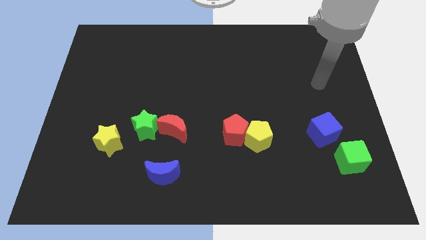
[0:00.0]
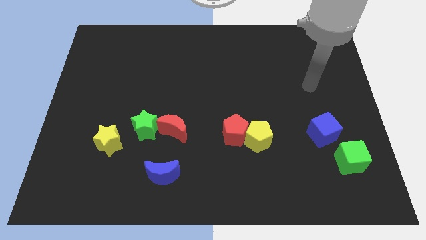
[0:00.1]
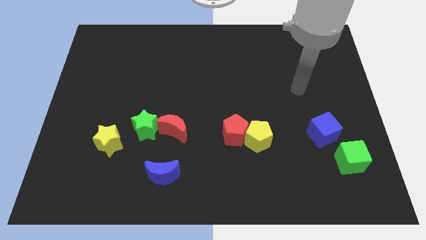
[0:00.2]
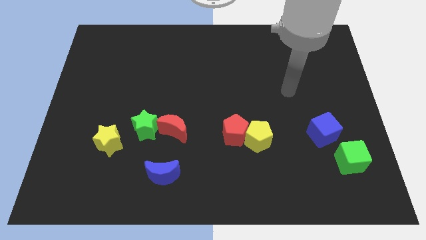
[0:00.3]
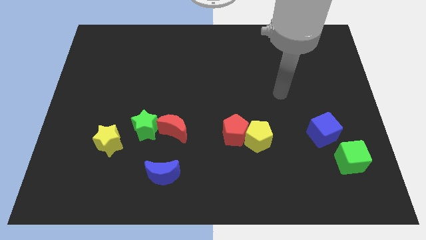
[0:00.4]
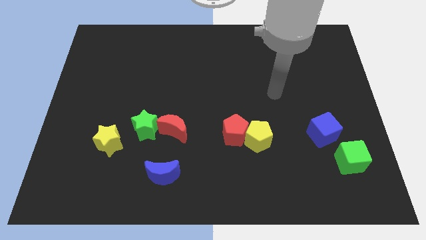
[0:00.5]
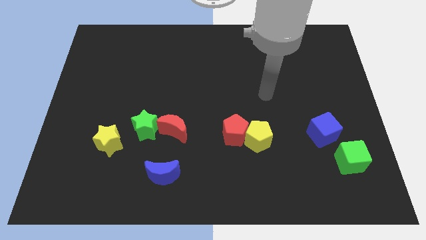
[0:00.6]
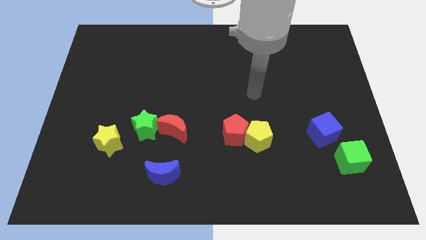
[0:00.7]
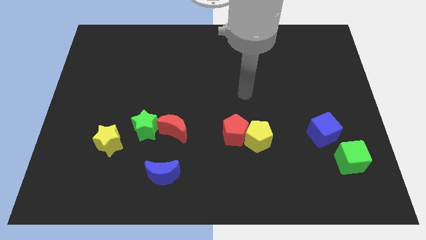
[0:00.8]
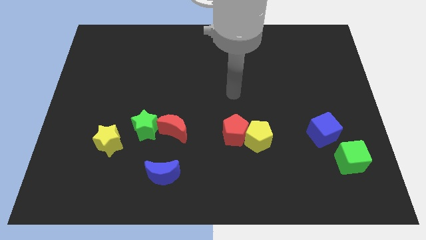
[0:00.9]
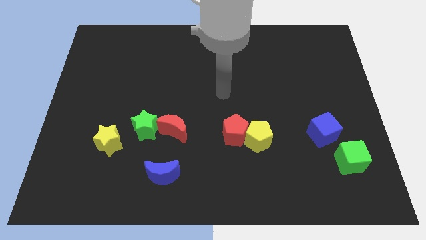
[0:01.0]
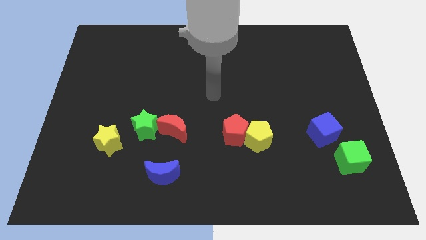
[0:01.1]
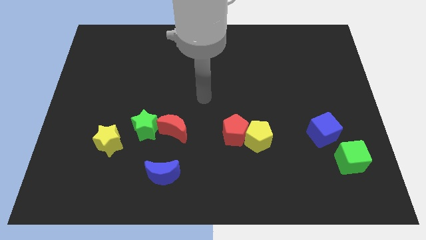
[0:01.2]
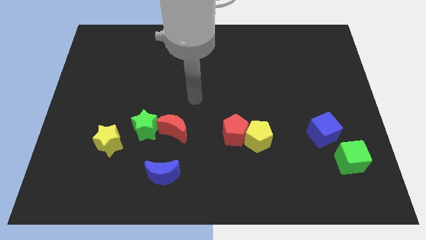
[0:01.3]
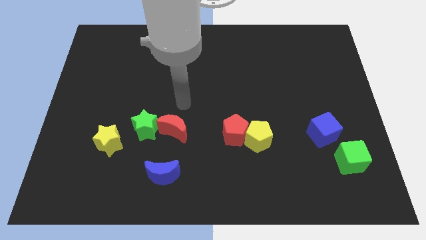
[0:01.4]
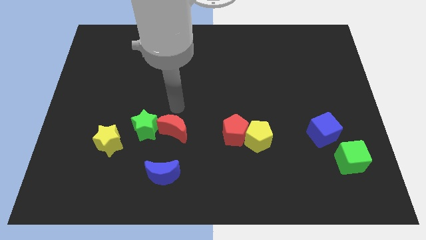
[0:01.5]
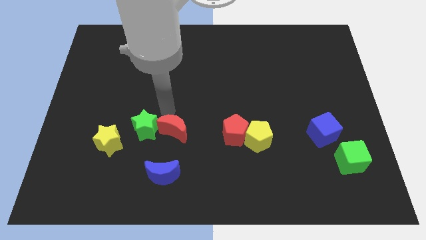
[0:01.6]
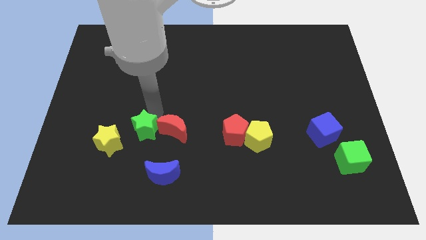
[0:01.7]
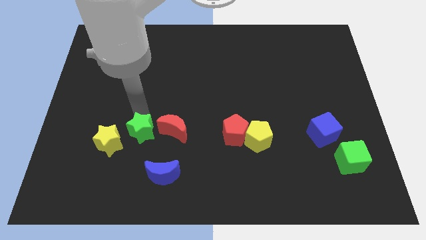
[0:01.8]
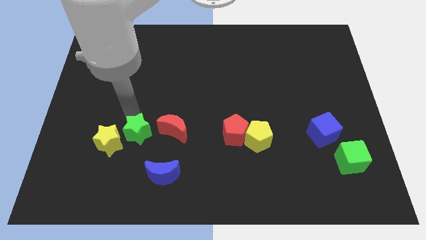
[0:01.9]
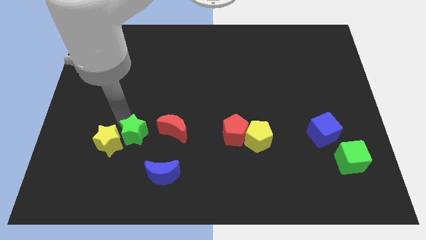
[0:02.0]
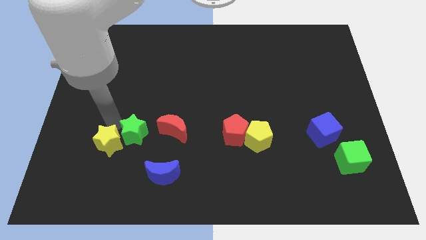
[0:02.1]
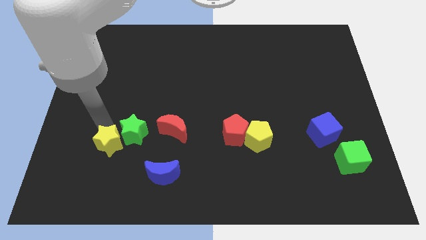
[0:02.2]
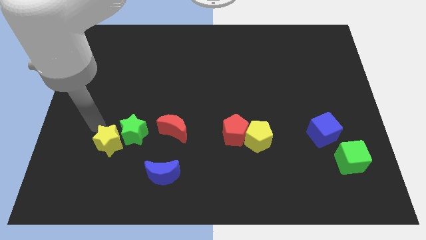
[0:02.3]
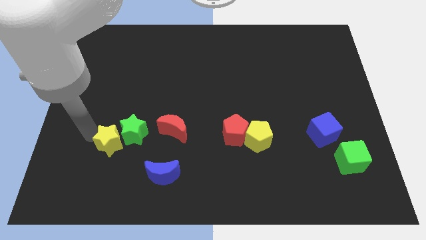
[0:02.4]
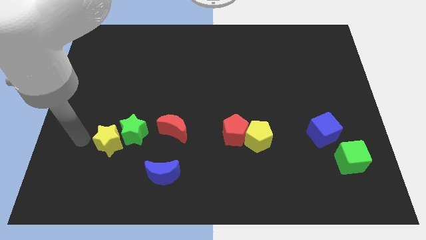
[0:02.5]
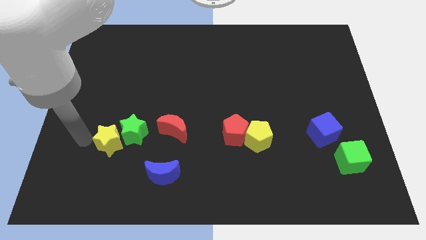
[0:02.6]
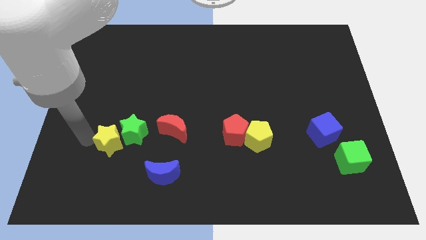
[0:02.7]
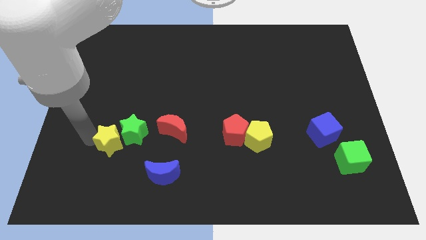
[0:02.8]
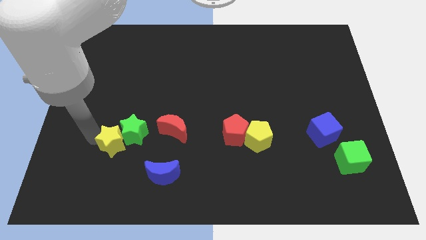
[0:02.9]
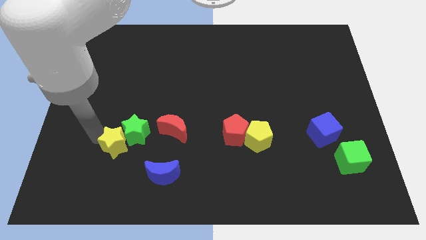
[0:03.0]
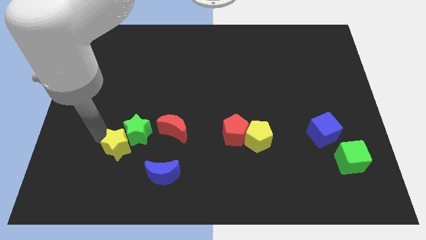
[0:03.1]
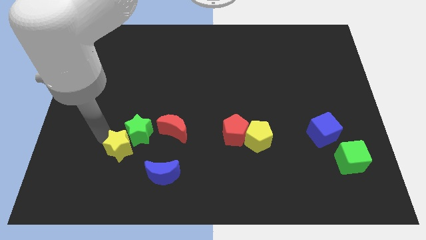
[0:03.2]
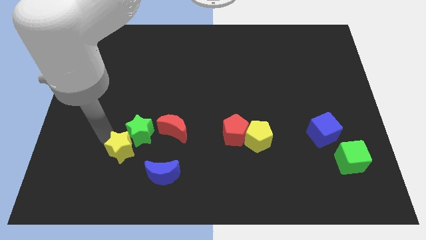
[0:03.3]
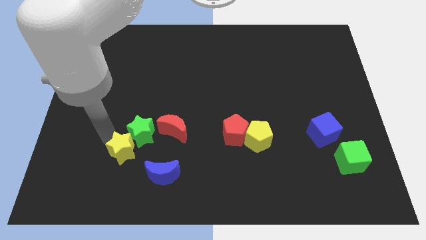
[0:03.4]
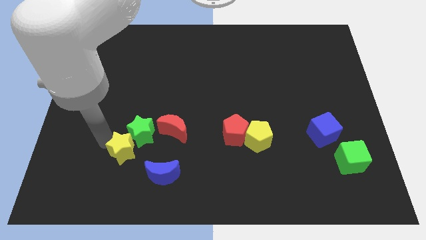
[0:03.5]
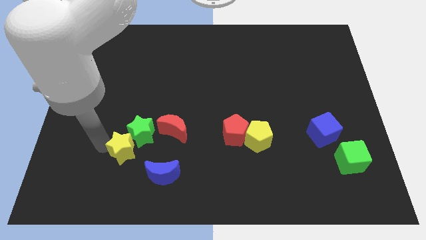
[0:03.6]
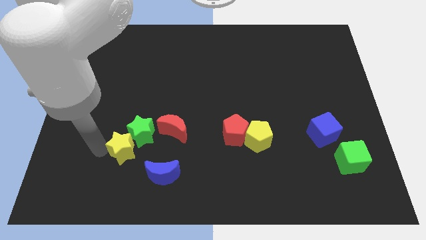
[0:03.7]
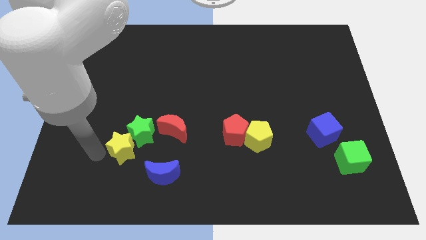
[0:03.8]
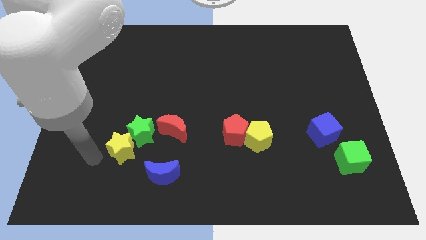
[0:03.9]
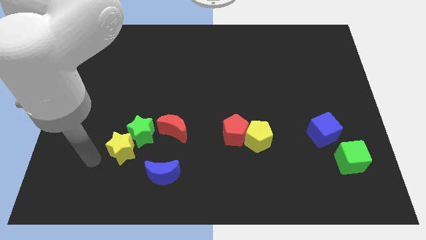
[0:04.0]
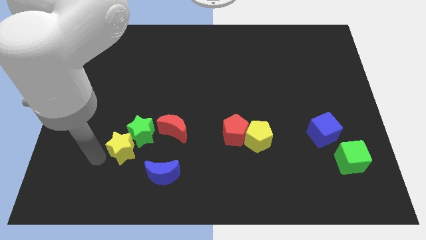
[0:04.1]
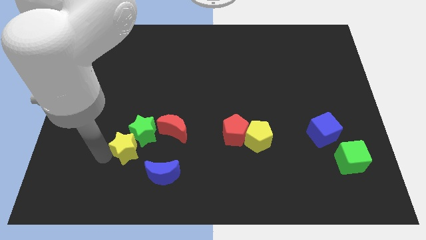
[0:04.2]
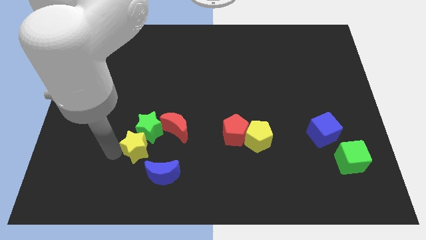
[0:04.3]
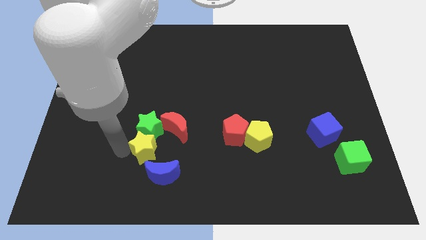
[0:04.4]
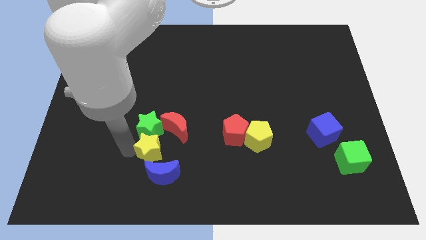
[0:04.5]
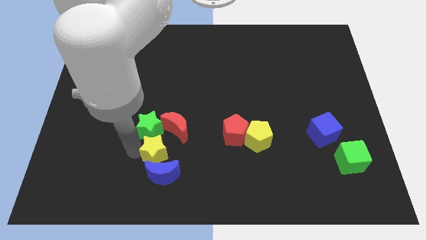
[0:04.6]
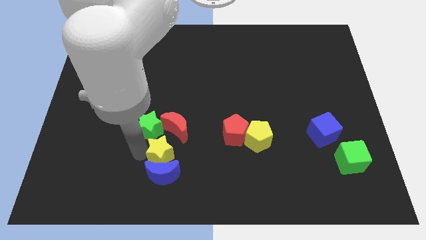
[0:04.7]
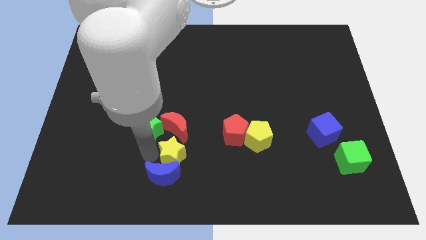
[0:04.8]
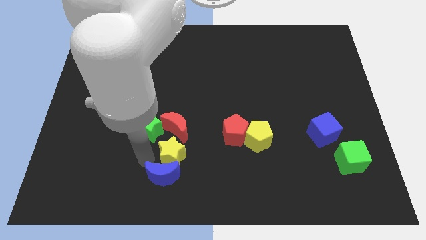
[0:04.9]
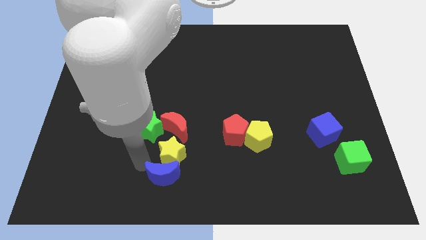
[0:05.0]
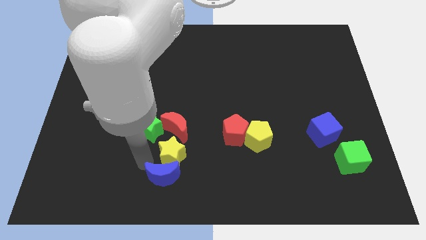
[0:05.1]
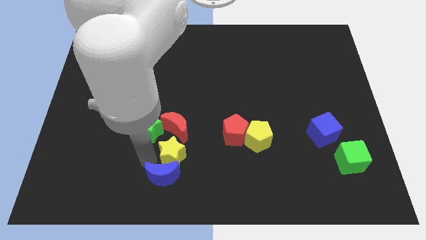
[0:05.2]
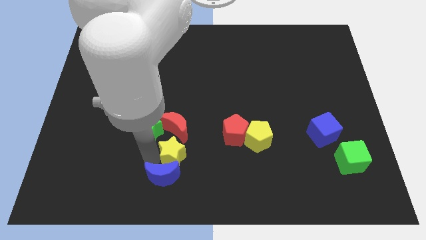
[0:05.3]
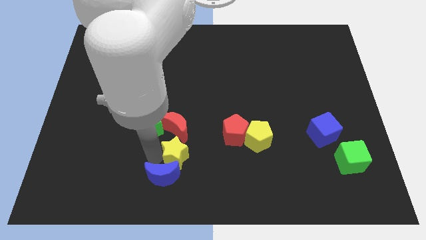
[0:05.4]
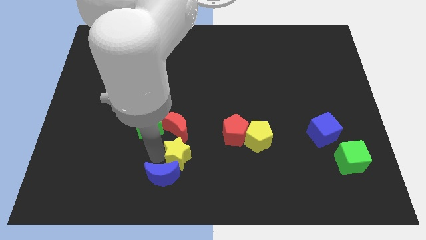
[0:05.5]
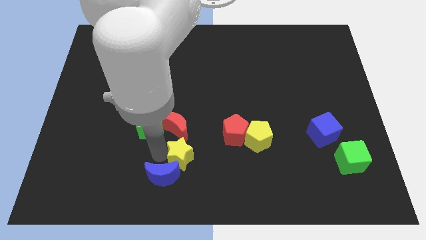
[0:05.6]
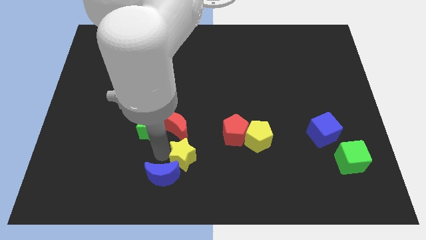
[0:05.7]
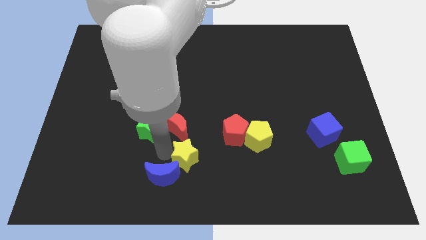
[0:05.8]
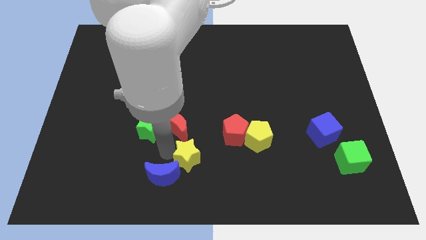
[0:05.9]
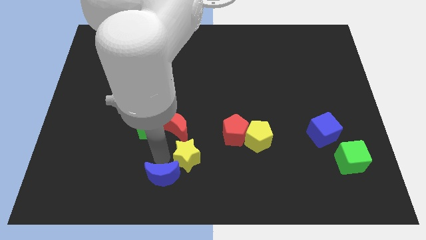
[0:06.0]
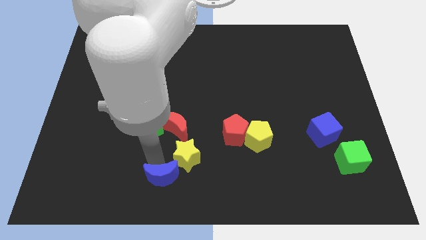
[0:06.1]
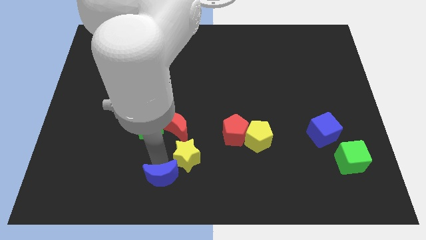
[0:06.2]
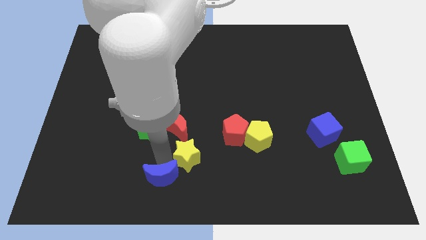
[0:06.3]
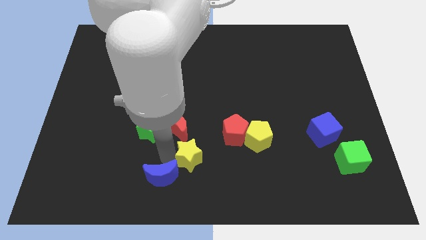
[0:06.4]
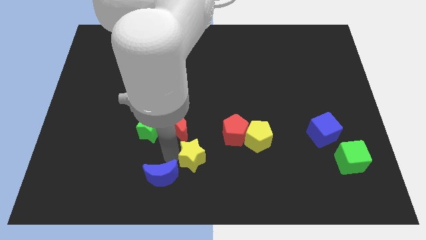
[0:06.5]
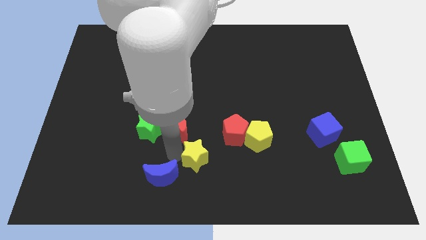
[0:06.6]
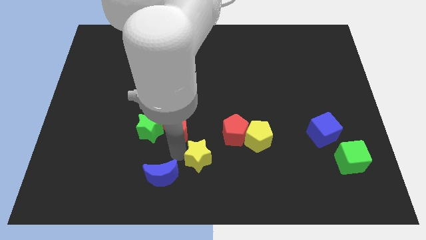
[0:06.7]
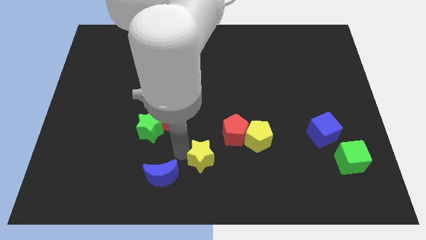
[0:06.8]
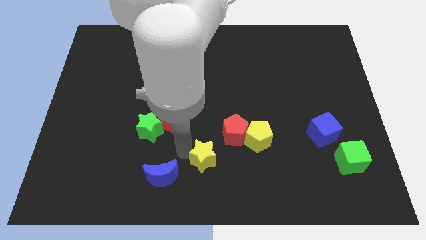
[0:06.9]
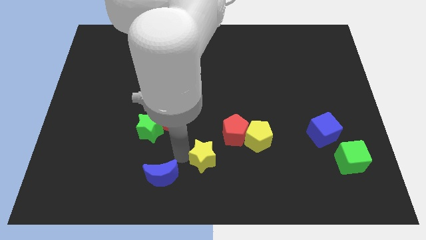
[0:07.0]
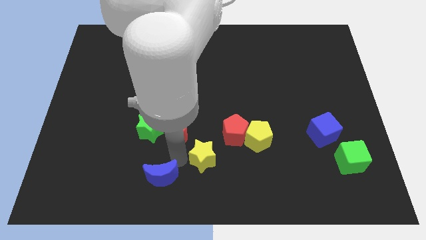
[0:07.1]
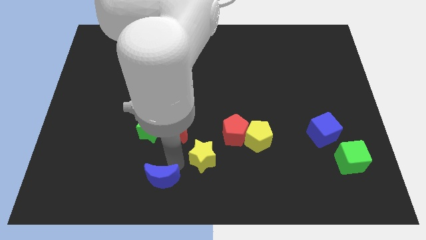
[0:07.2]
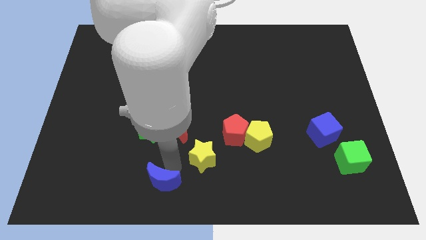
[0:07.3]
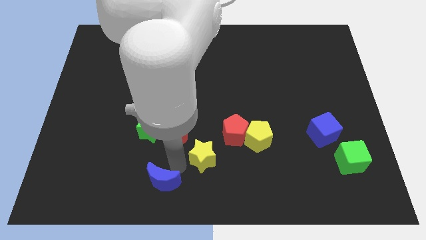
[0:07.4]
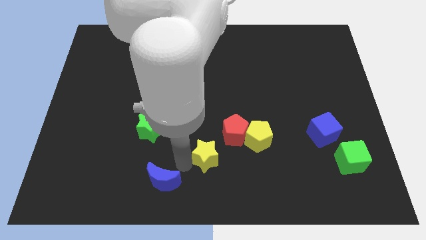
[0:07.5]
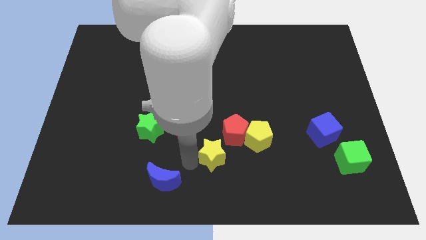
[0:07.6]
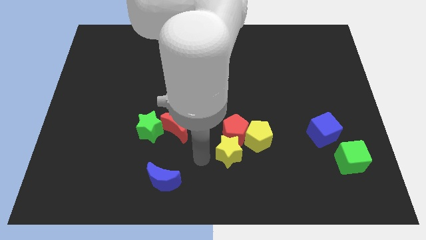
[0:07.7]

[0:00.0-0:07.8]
push the yellow star to the bottom right of the red pentagon
